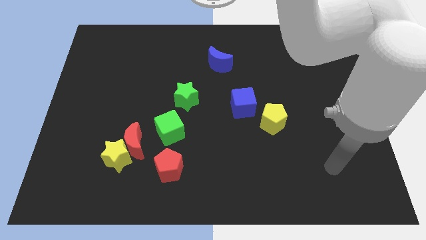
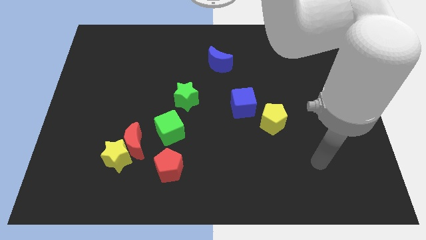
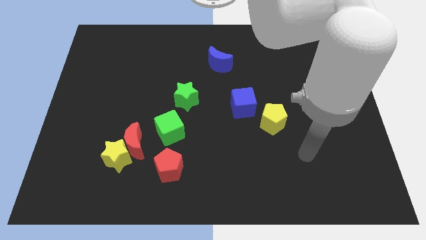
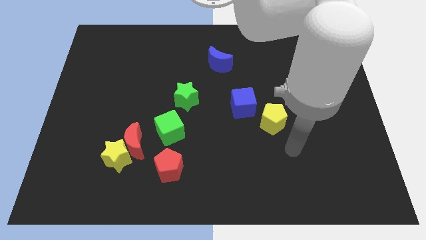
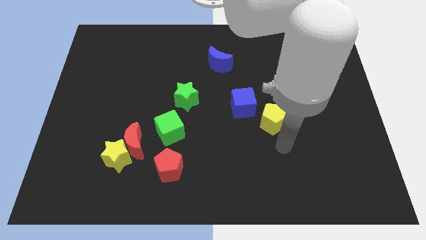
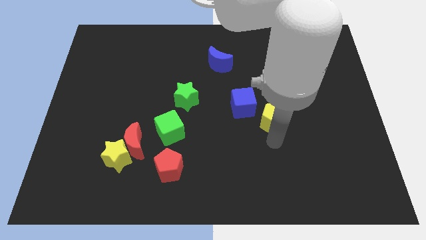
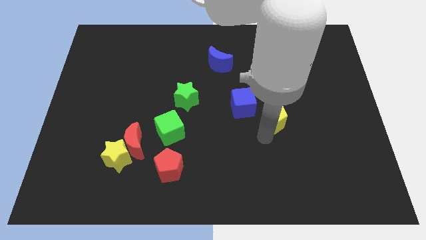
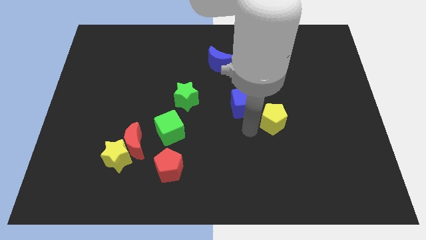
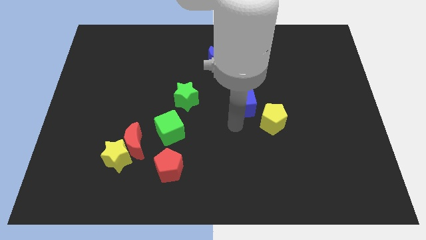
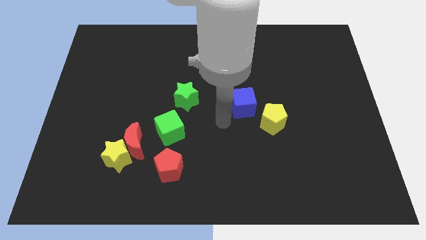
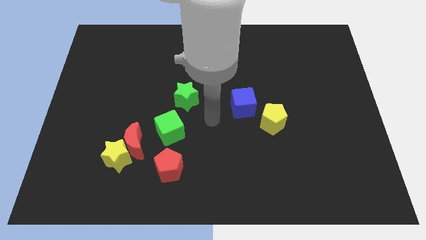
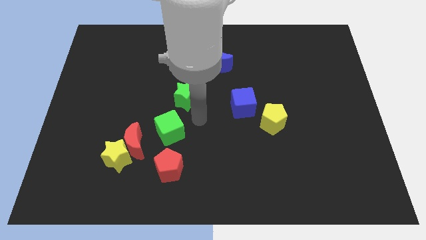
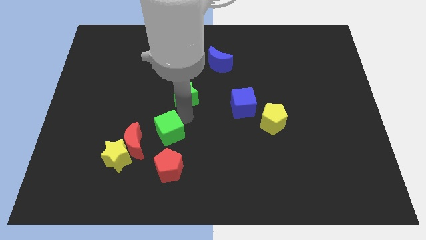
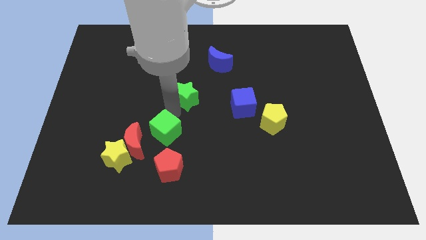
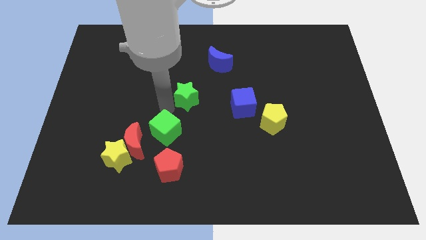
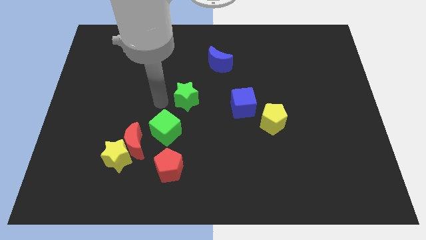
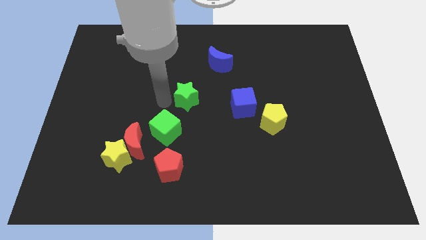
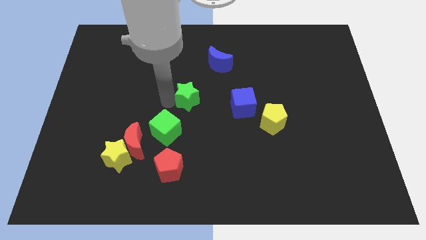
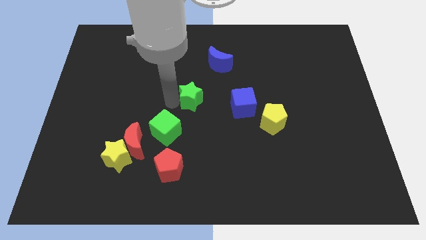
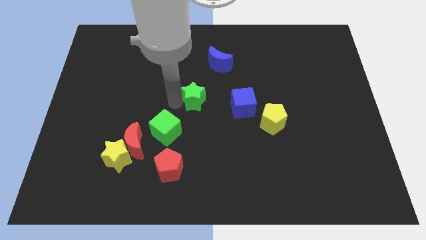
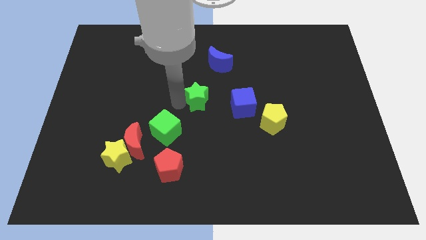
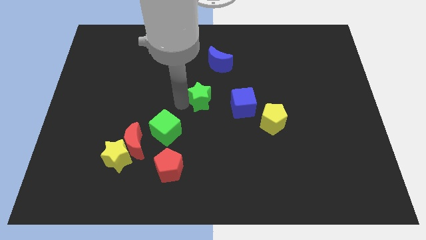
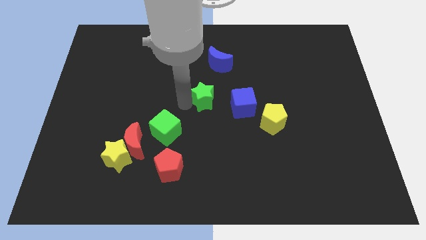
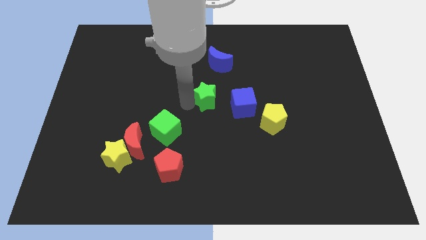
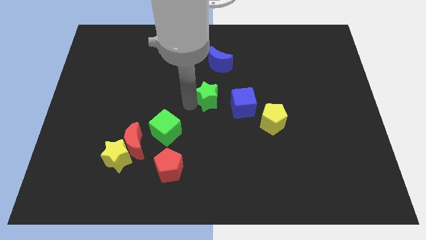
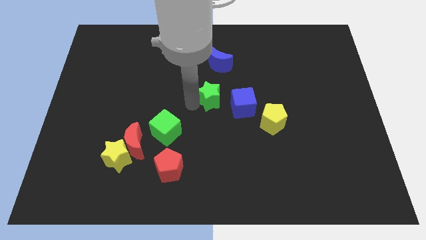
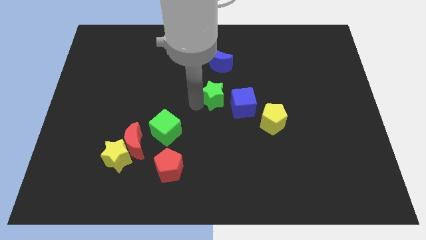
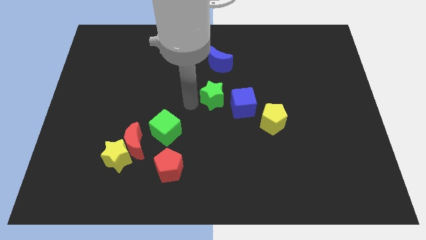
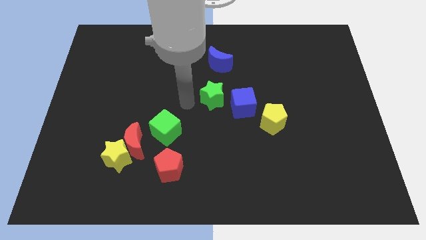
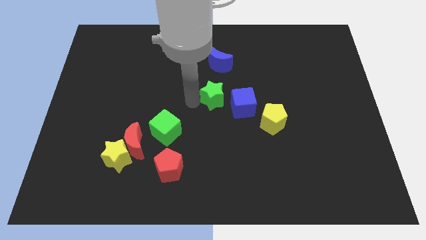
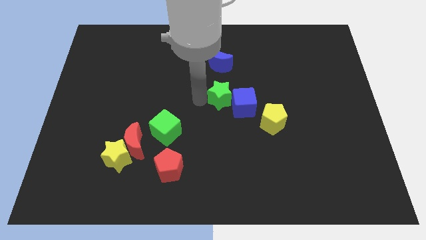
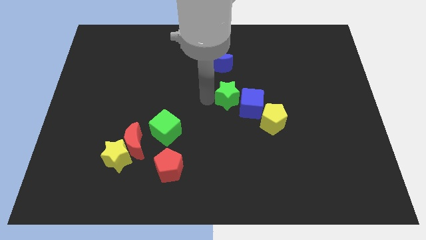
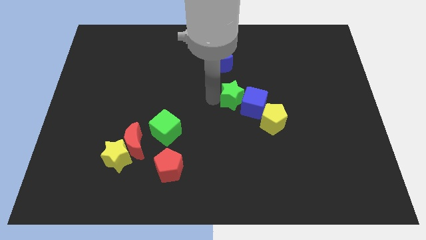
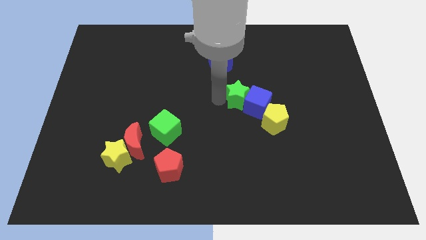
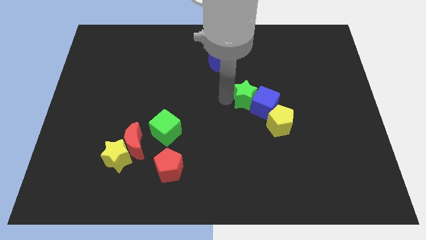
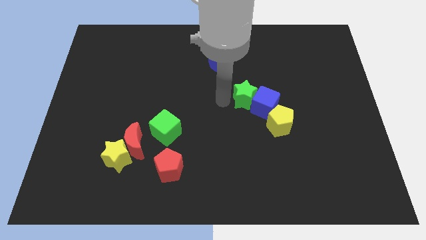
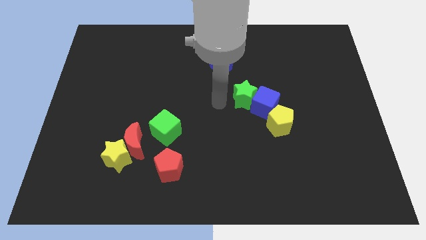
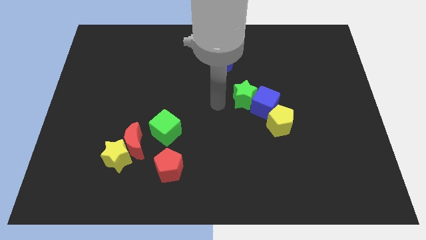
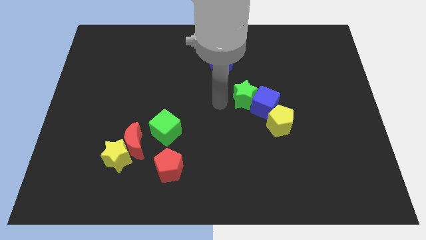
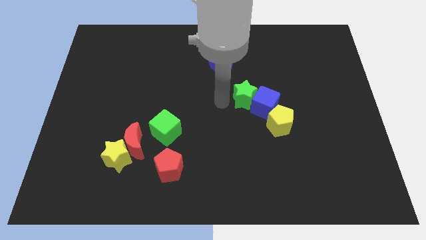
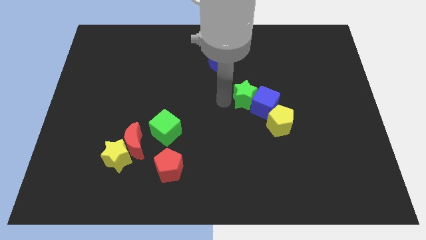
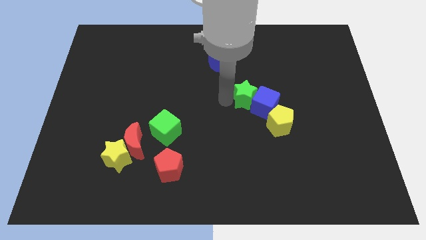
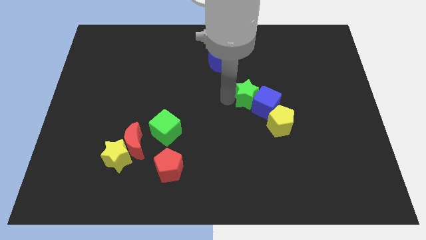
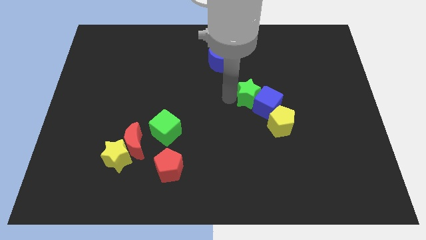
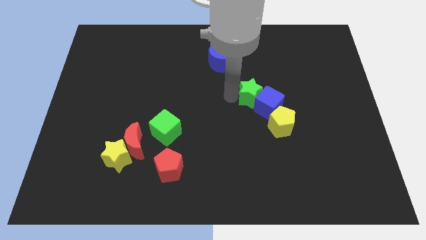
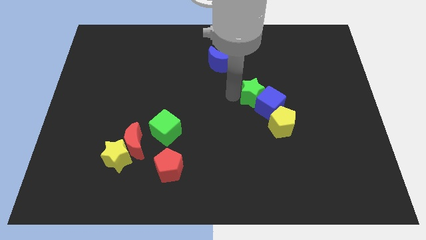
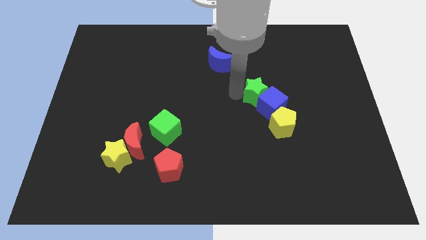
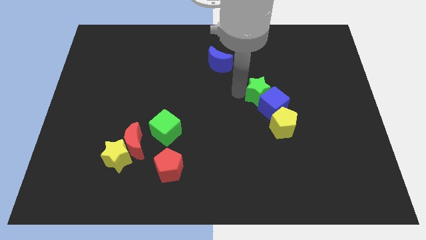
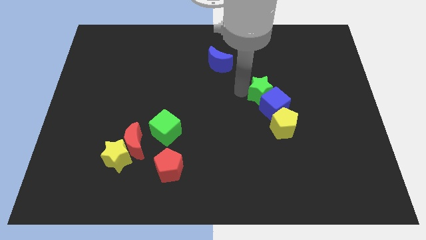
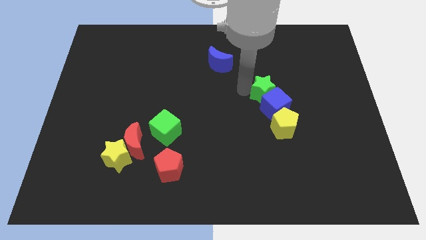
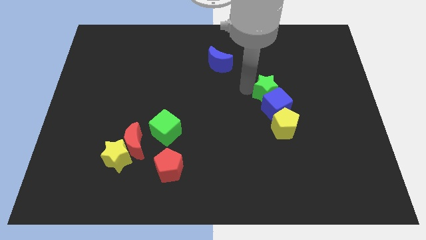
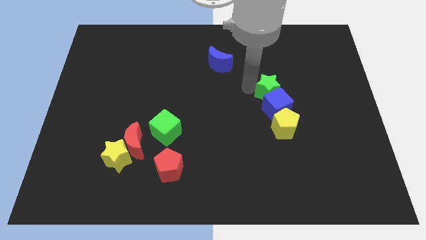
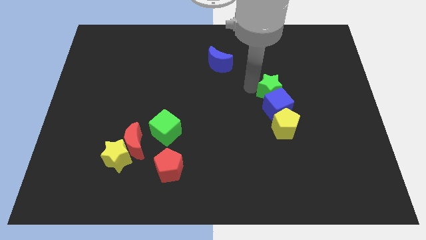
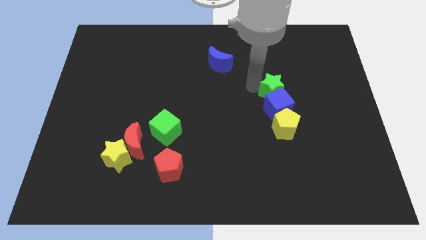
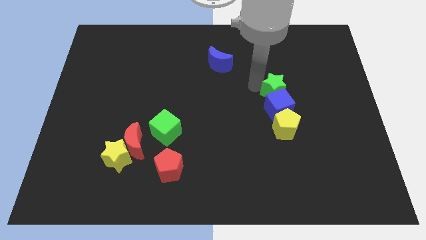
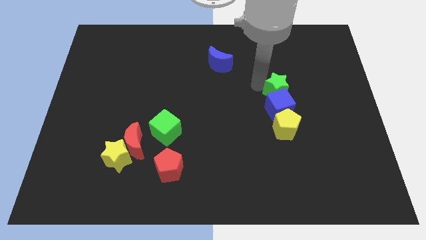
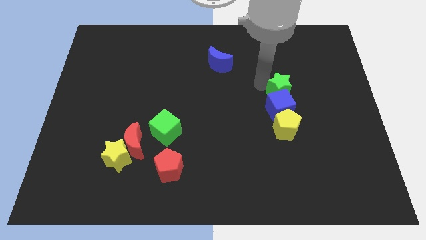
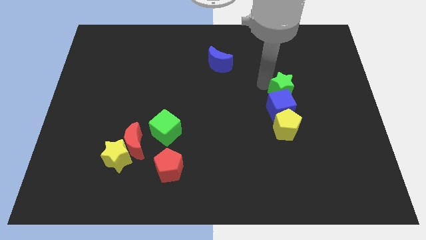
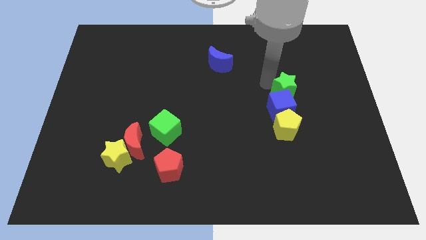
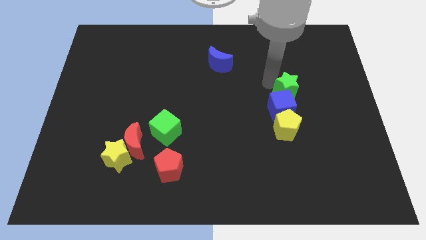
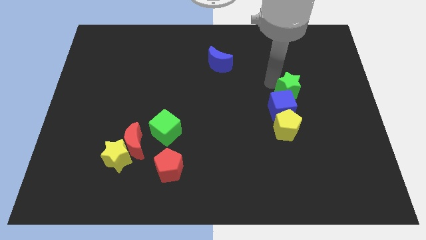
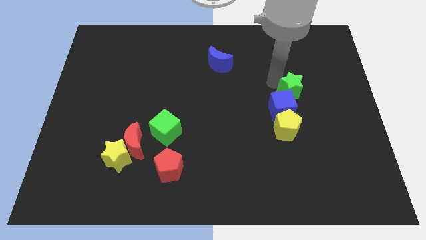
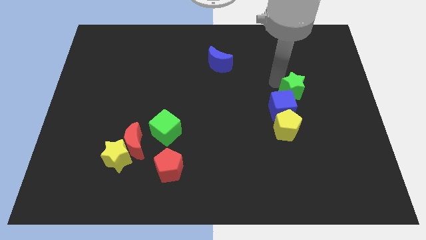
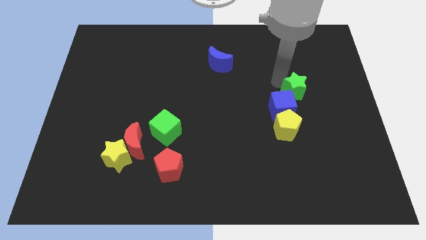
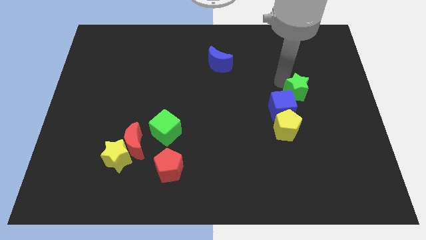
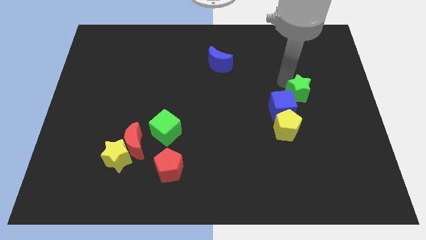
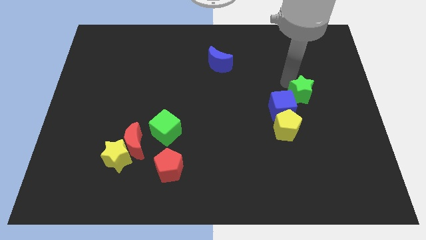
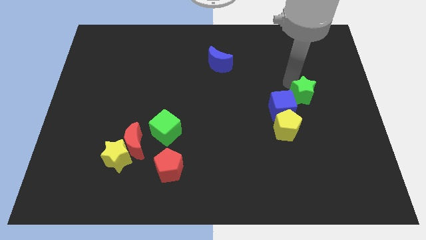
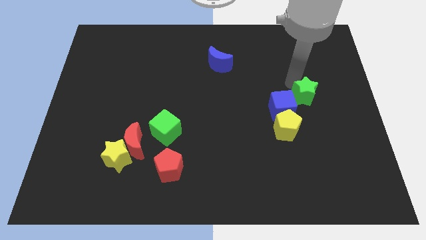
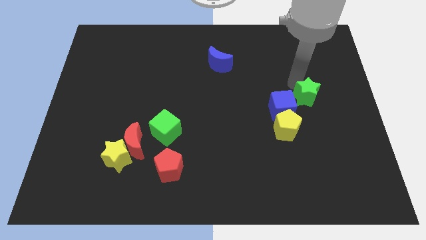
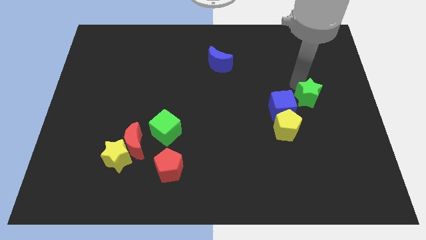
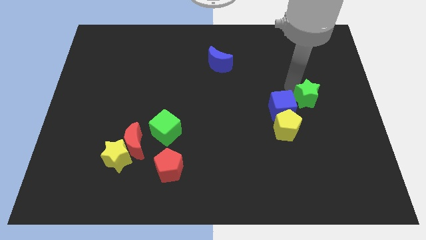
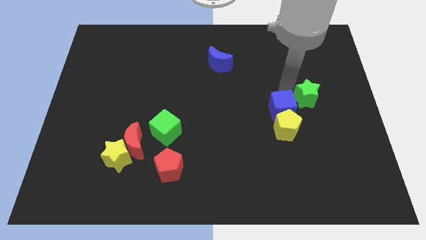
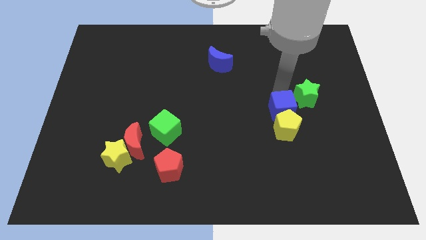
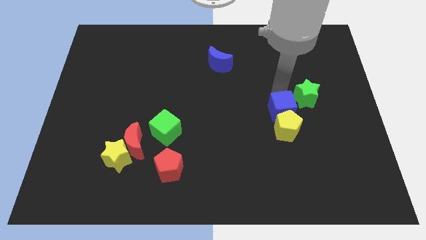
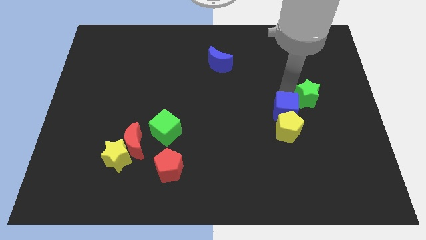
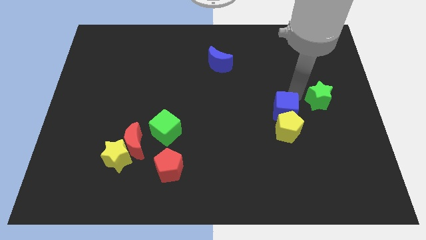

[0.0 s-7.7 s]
move the green star to the center right
